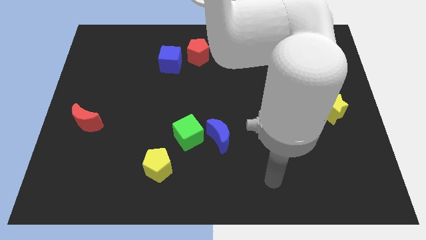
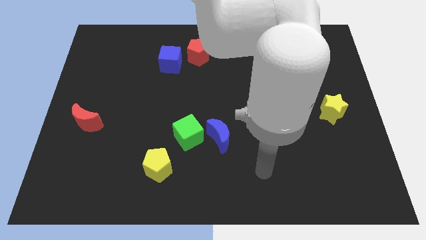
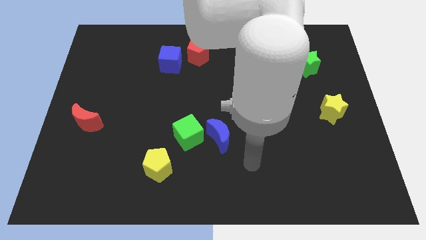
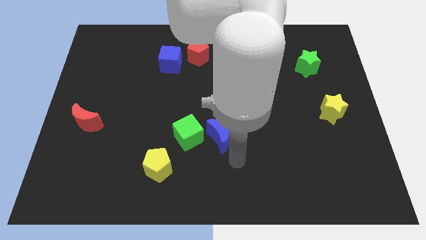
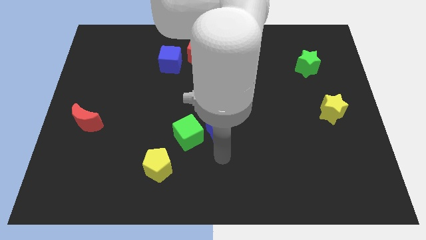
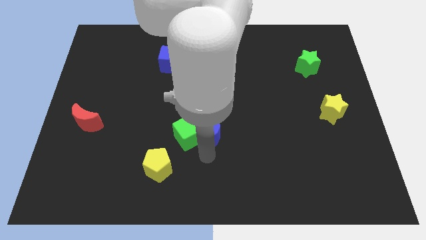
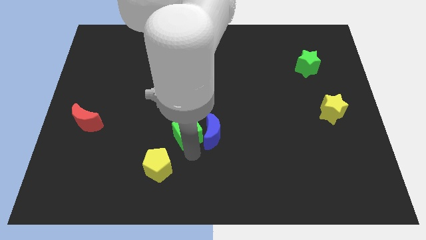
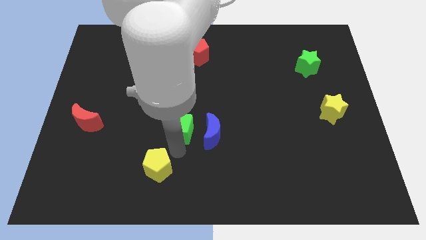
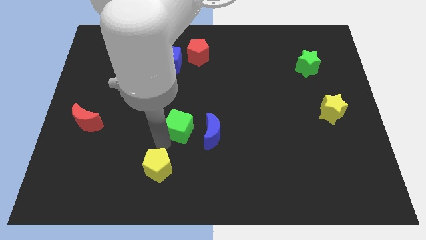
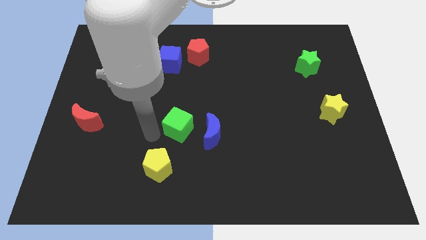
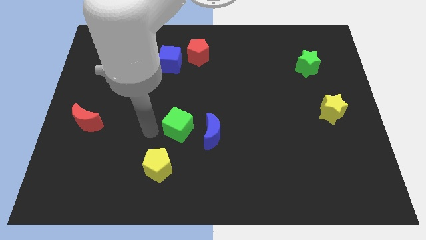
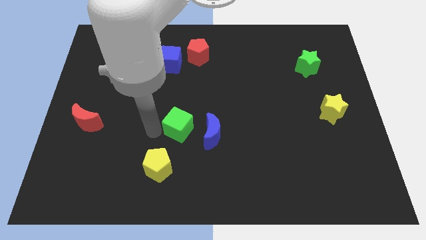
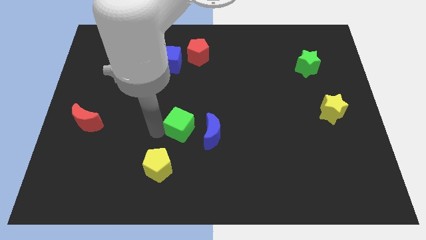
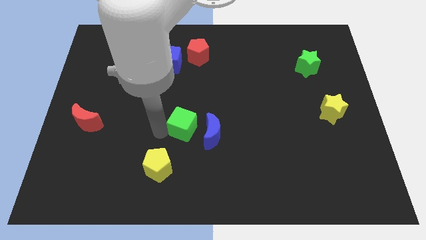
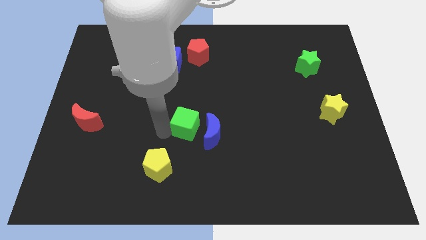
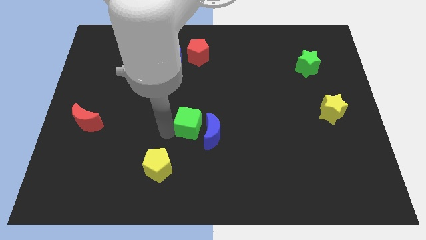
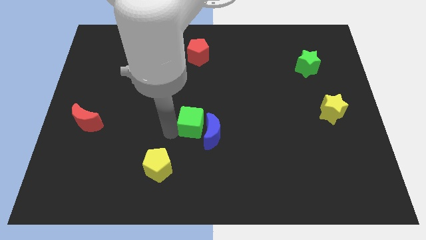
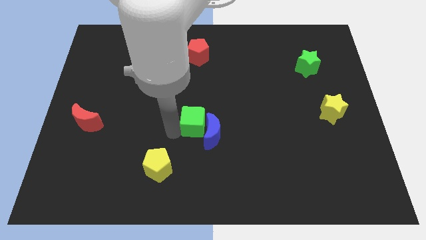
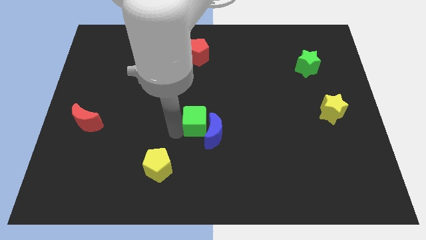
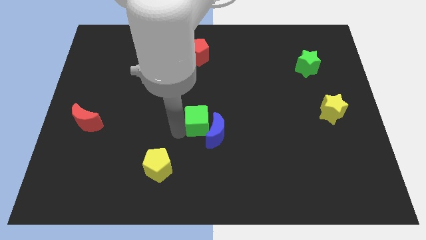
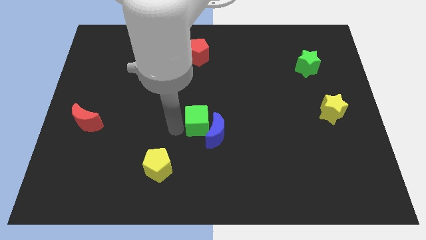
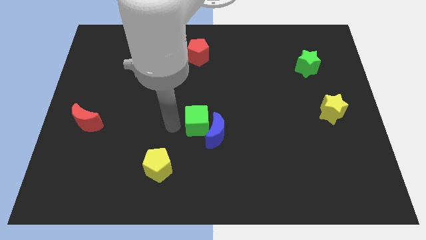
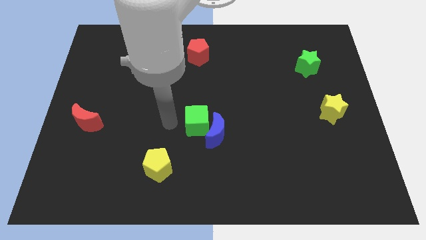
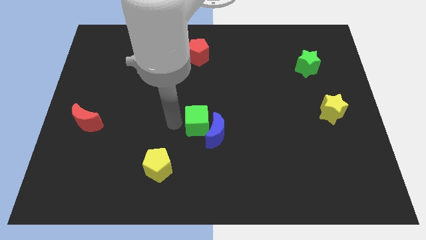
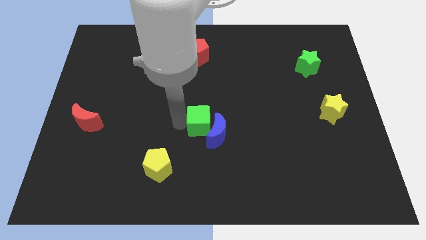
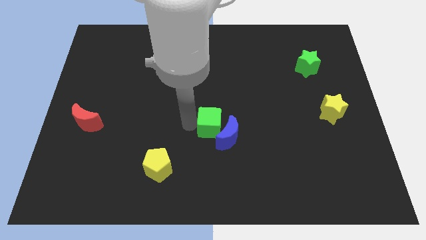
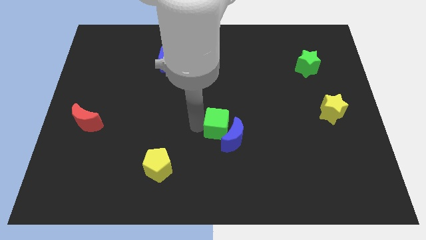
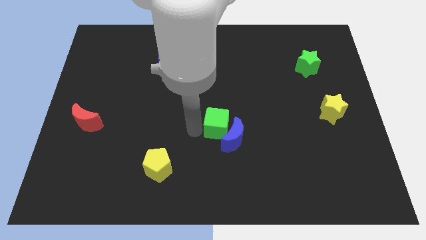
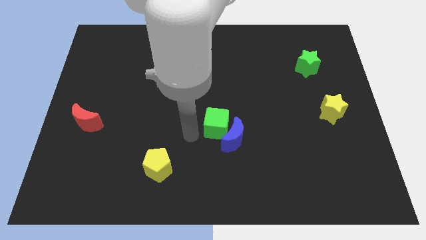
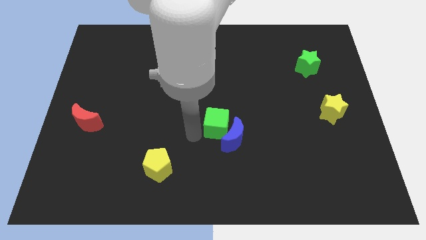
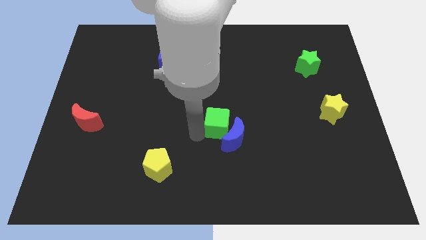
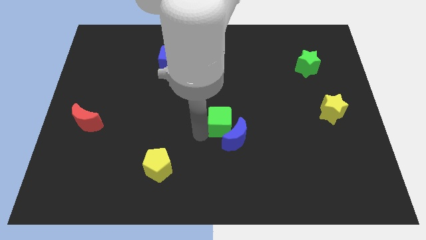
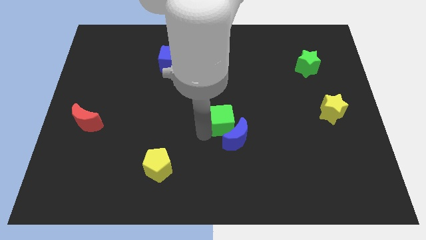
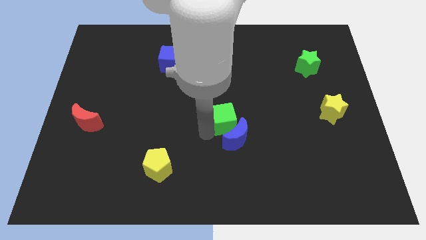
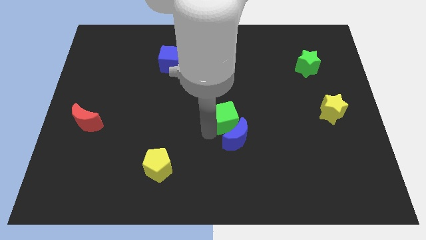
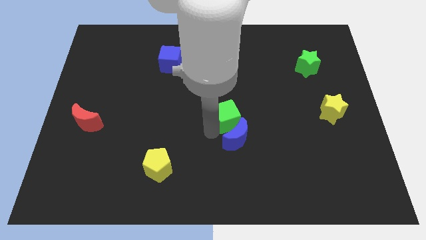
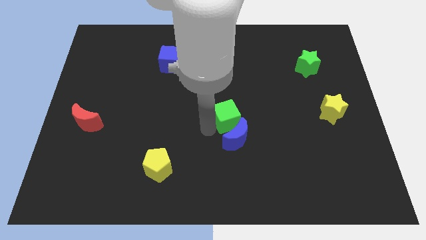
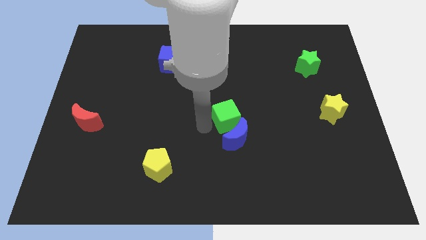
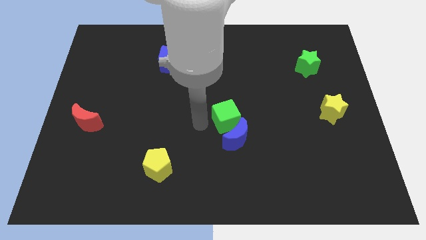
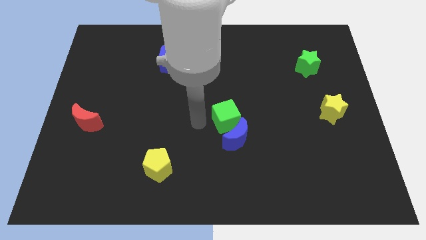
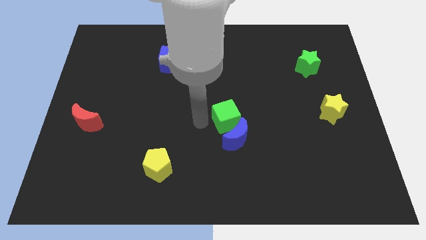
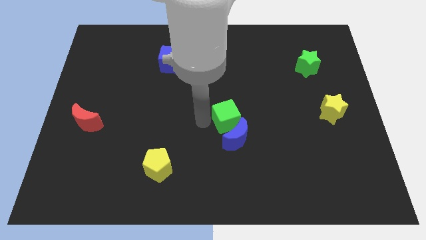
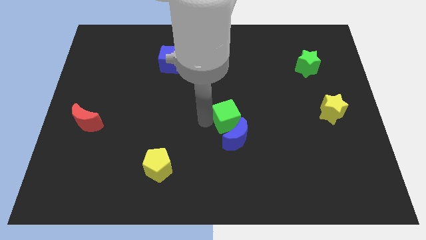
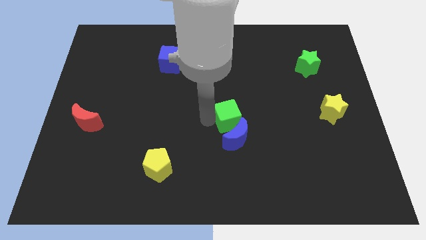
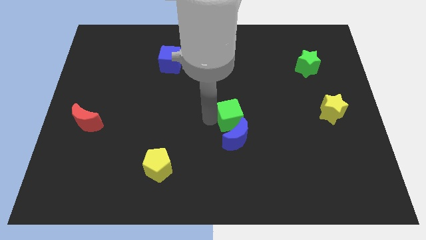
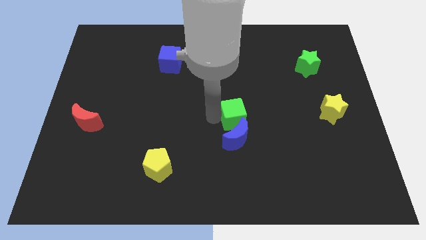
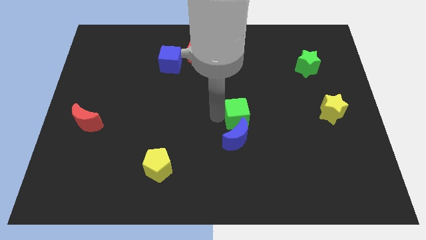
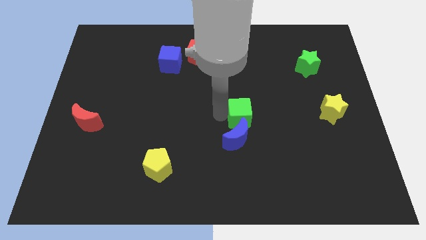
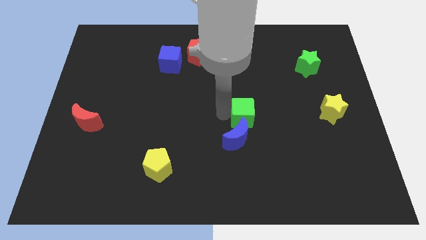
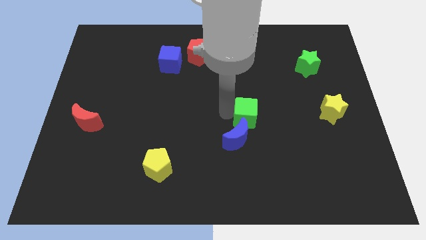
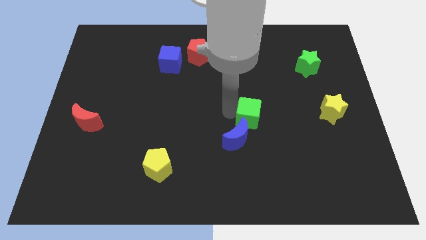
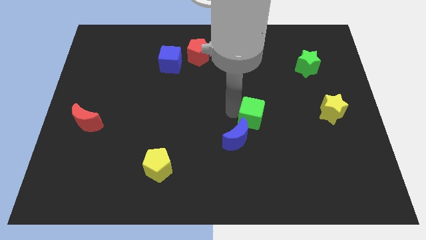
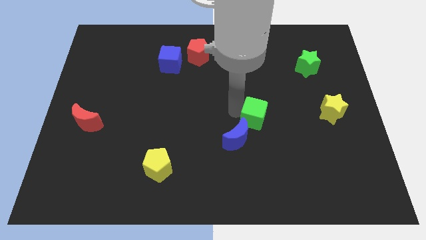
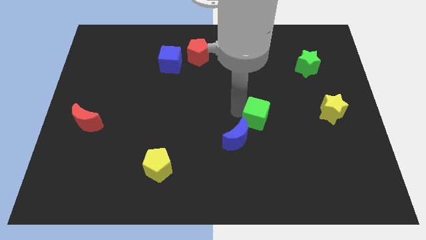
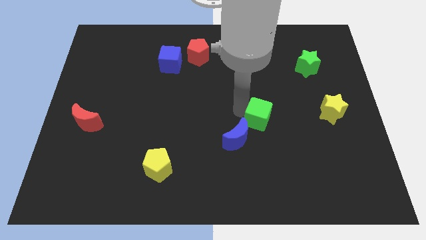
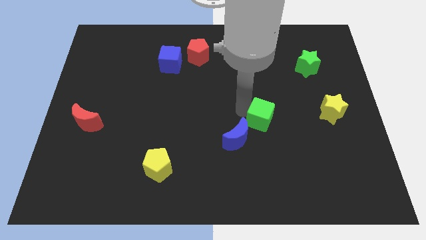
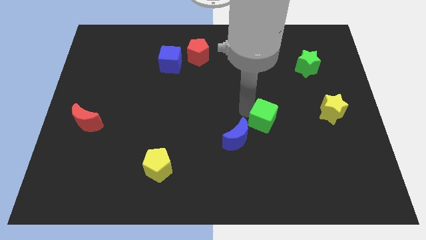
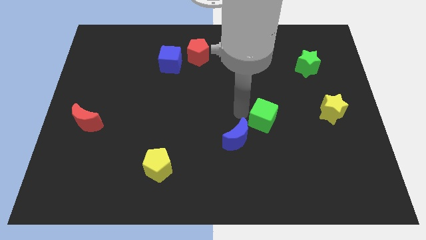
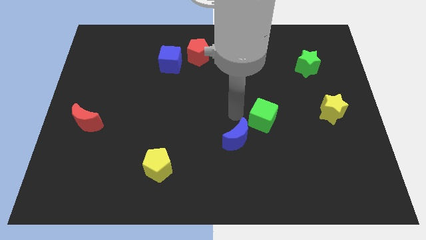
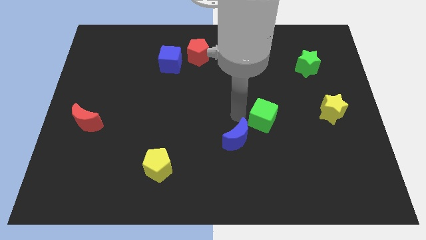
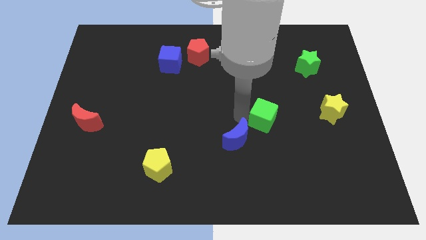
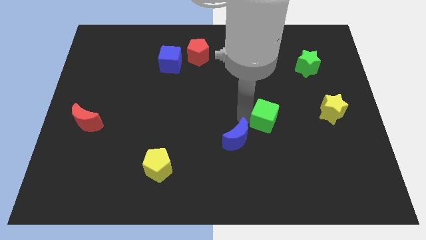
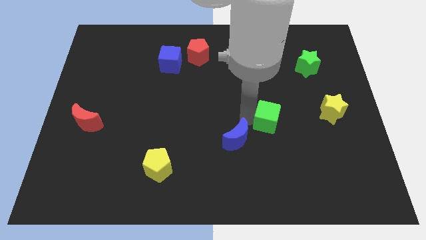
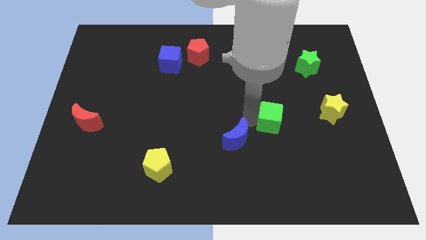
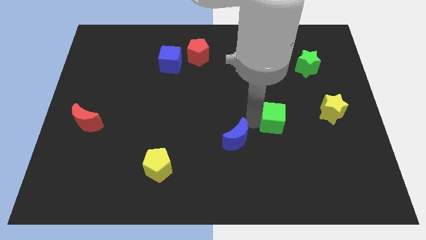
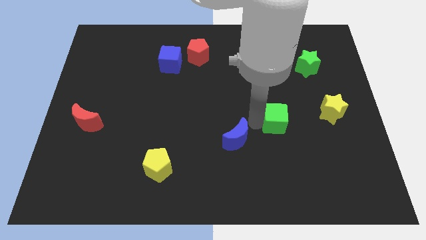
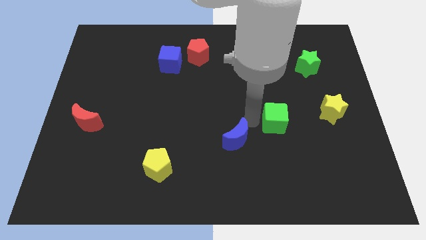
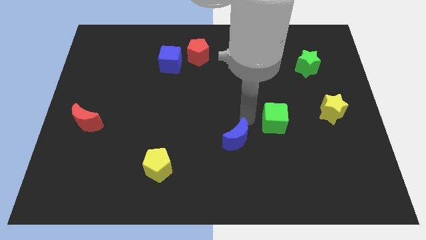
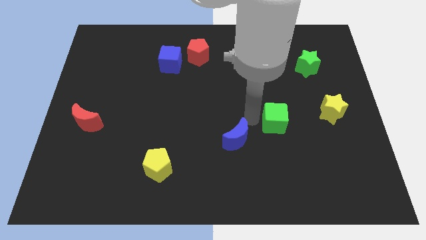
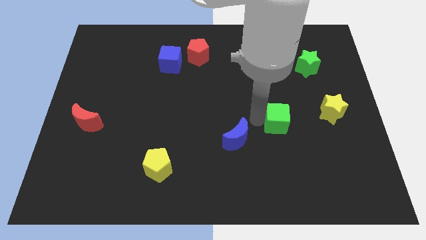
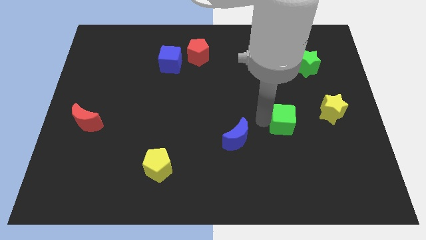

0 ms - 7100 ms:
push the green cube to the right

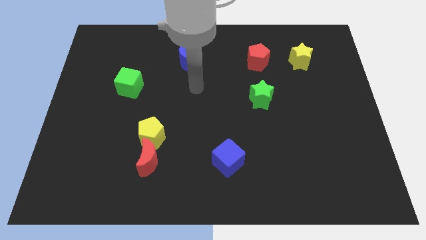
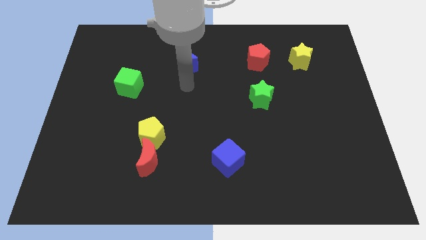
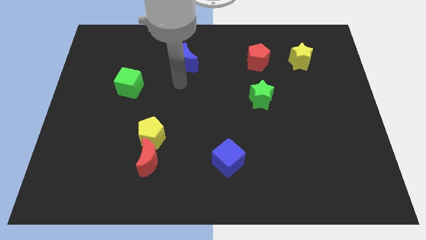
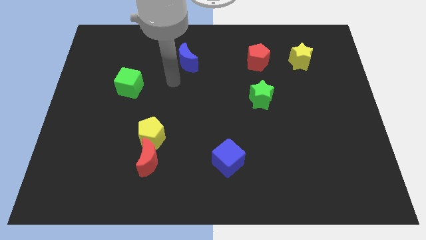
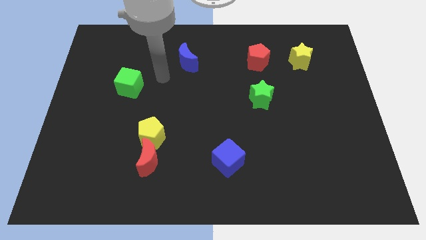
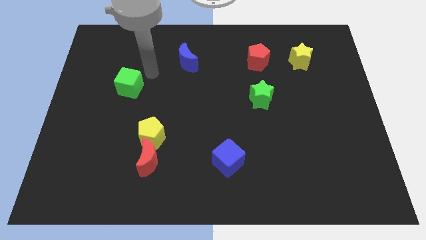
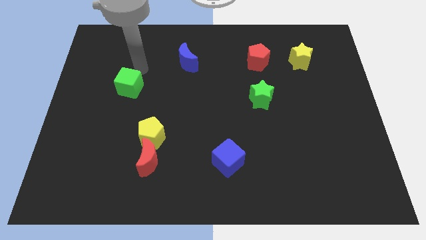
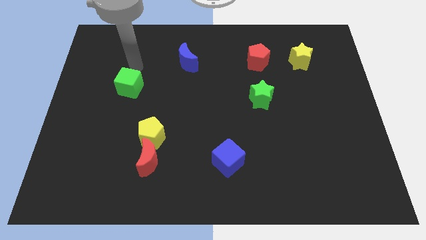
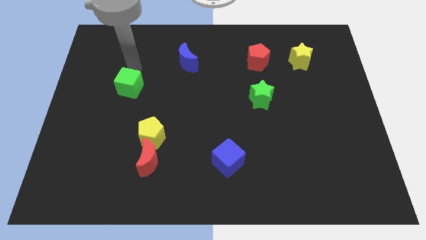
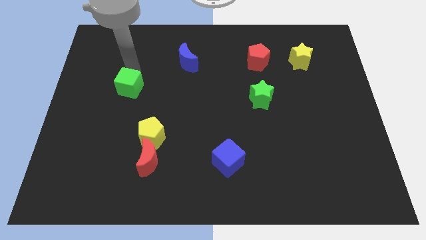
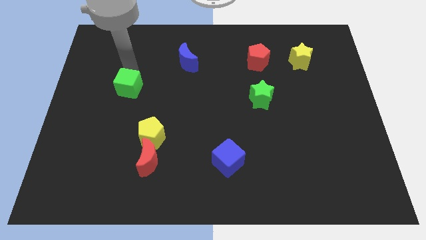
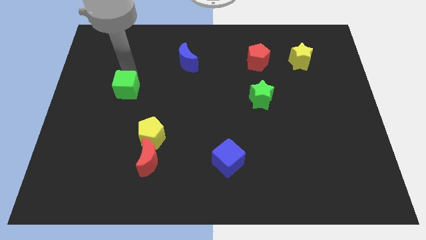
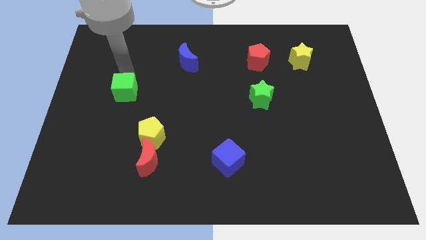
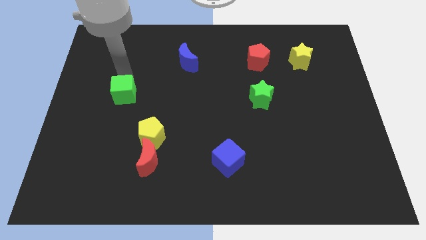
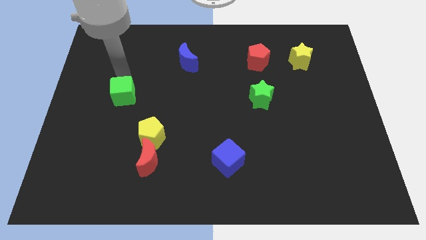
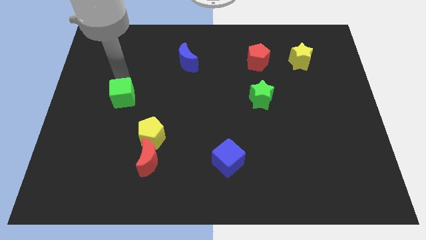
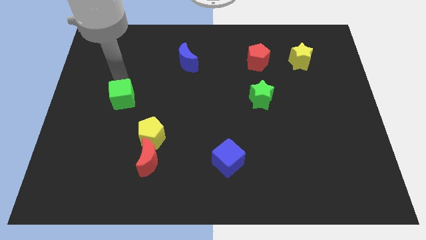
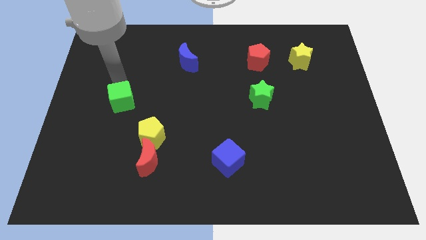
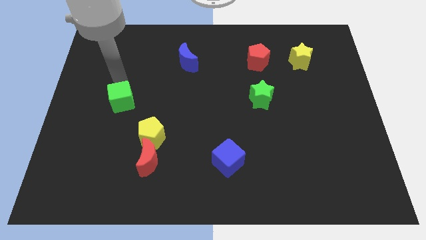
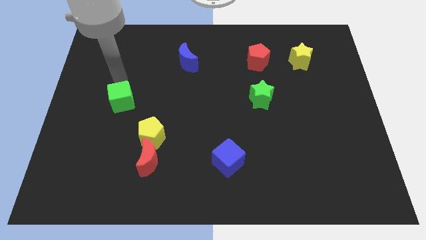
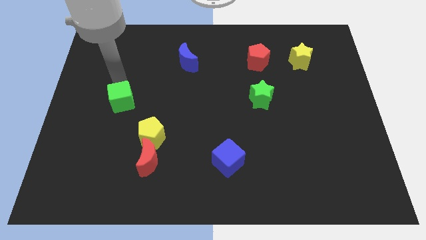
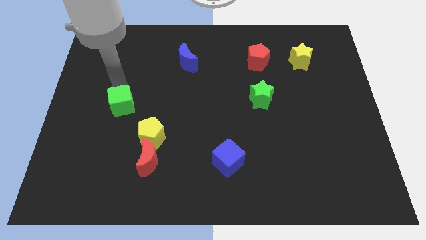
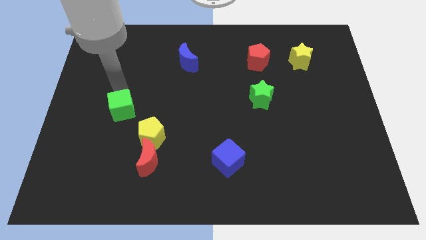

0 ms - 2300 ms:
slightly slide the green cube down
